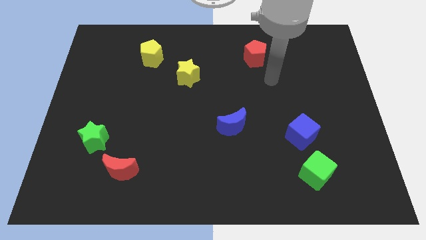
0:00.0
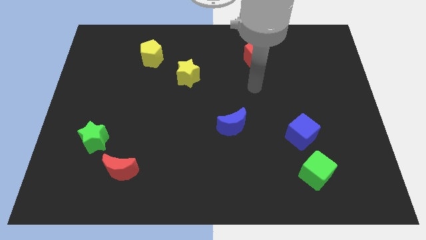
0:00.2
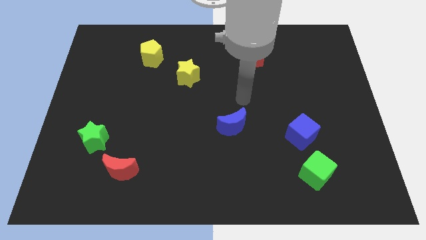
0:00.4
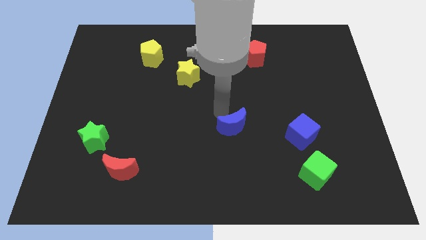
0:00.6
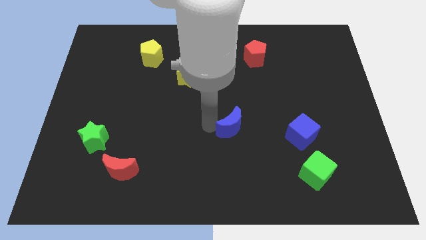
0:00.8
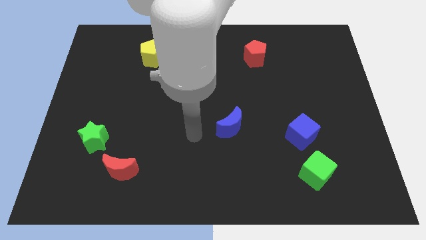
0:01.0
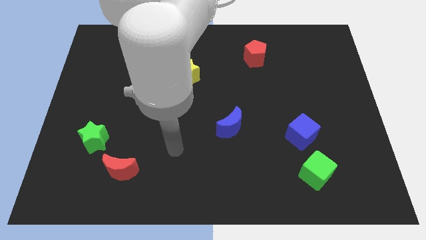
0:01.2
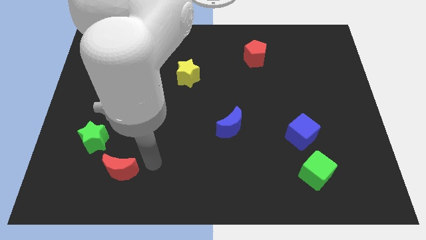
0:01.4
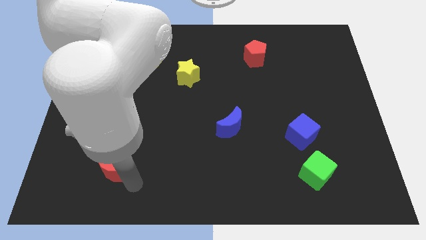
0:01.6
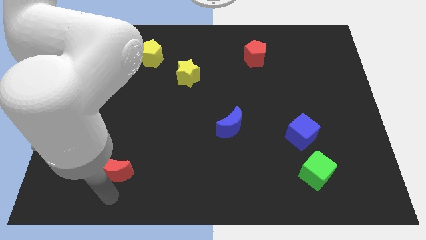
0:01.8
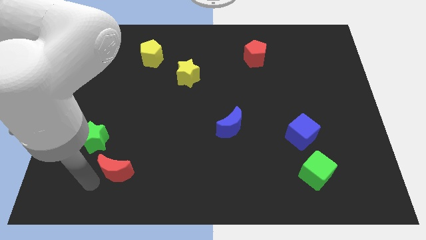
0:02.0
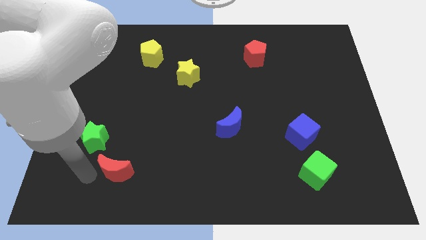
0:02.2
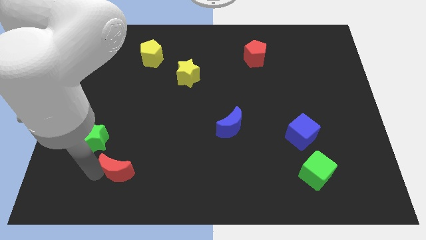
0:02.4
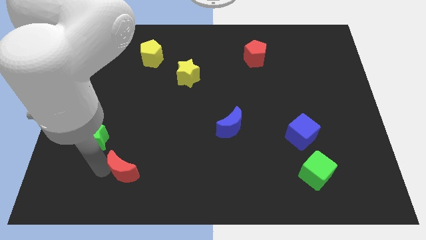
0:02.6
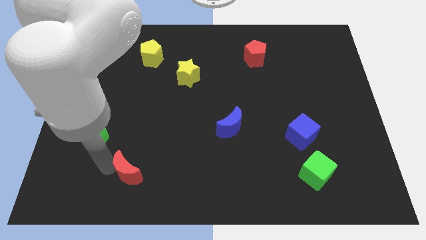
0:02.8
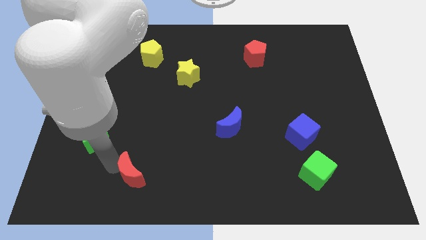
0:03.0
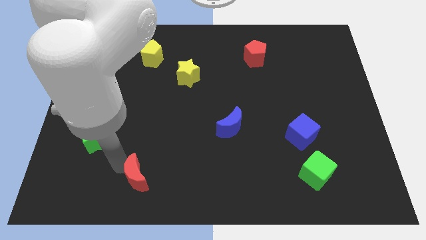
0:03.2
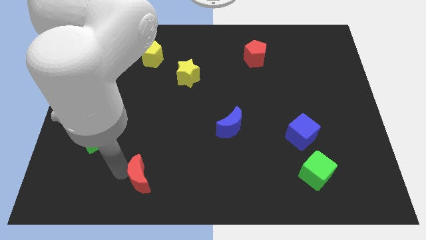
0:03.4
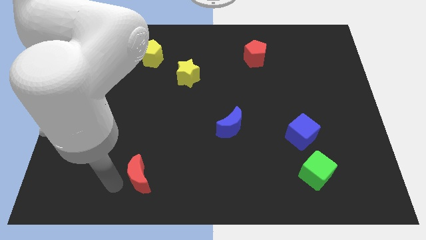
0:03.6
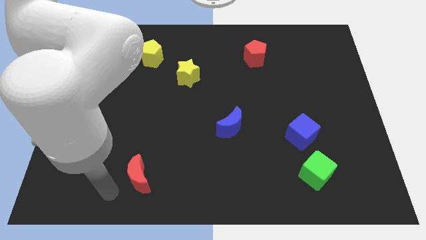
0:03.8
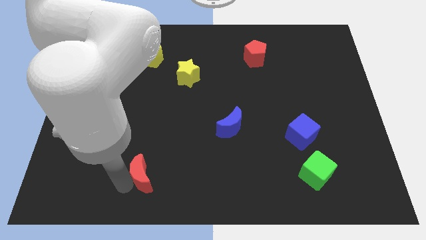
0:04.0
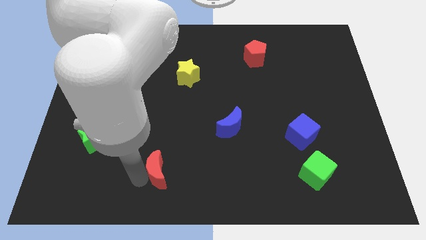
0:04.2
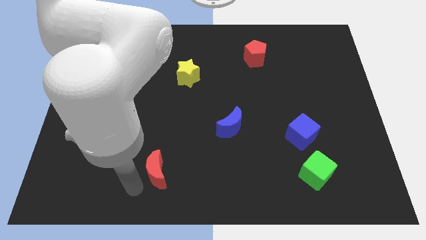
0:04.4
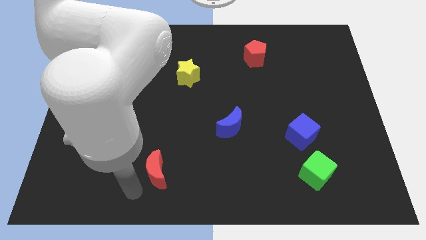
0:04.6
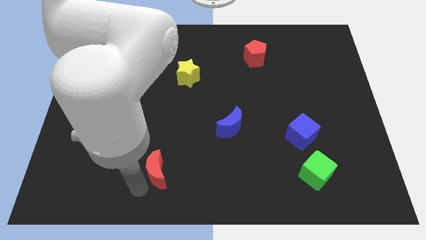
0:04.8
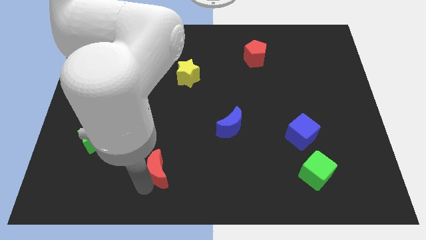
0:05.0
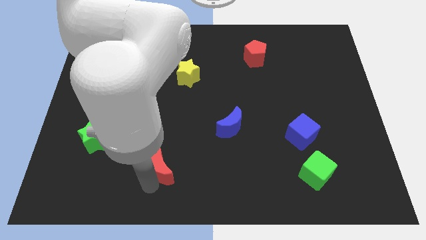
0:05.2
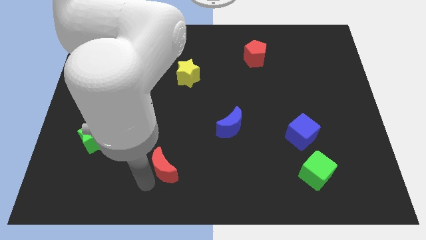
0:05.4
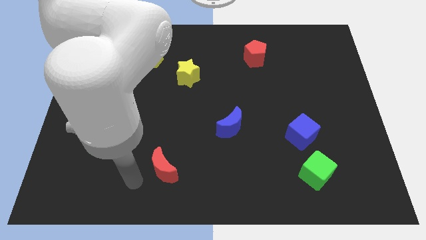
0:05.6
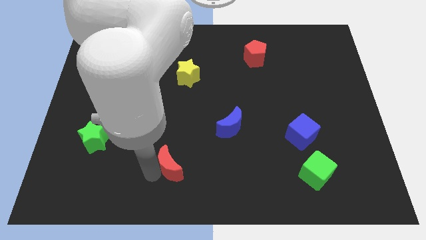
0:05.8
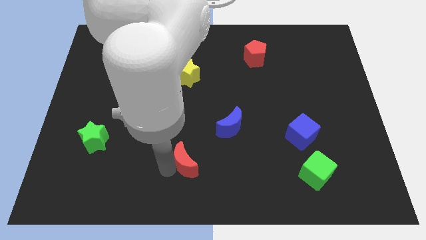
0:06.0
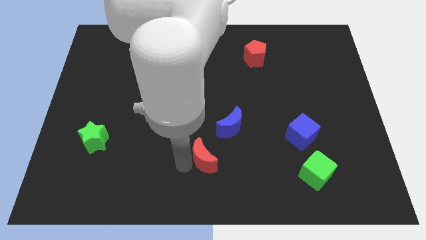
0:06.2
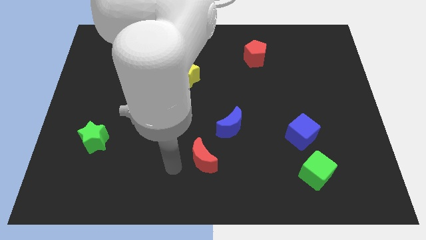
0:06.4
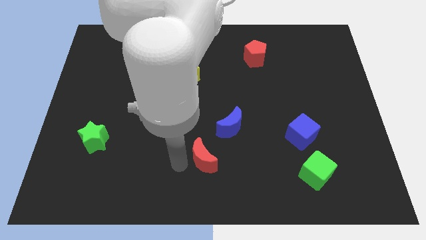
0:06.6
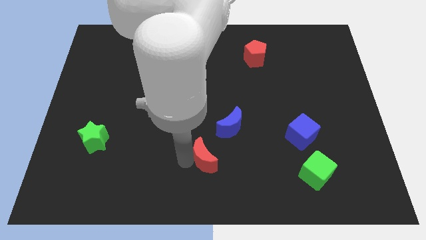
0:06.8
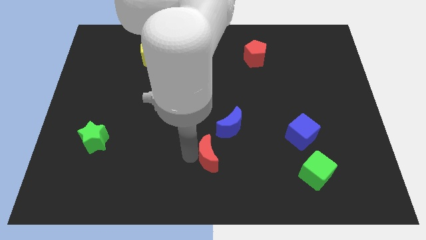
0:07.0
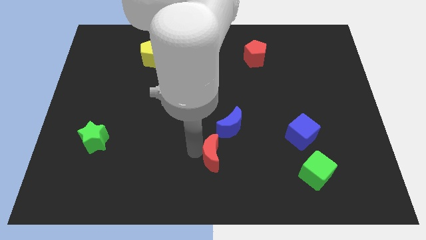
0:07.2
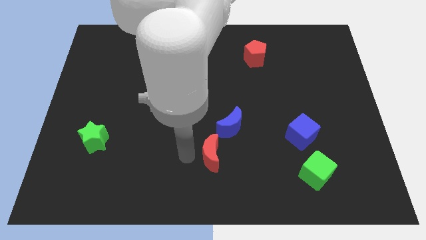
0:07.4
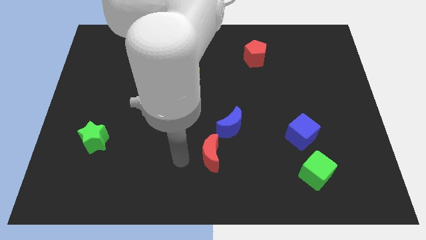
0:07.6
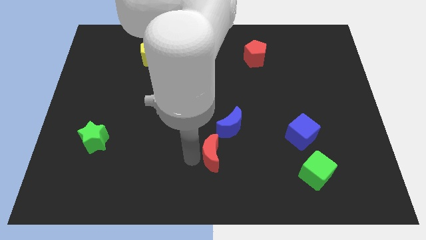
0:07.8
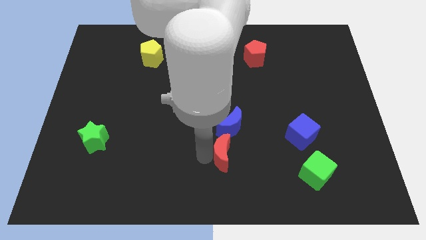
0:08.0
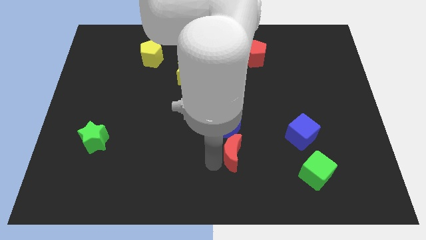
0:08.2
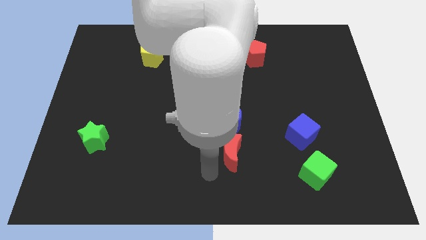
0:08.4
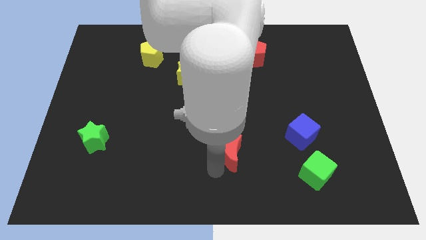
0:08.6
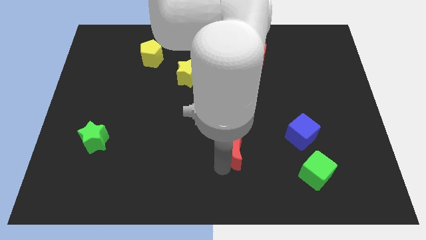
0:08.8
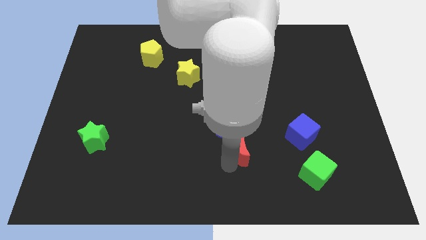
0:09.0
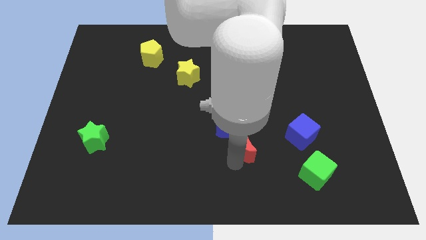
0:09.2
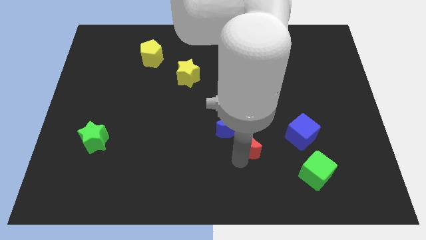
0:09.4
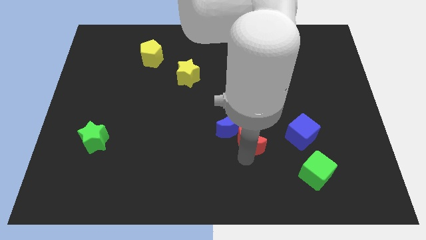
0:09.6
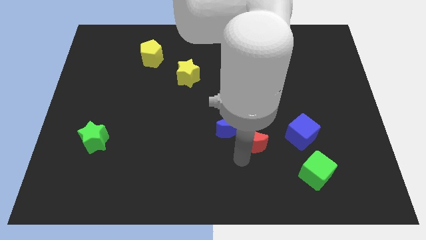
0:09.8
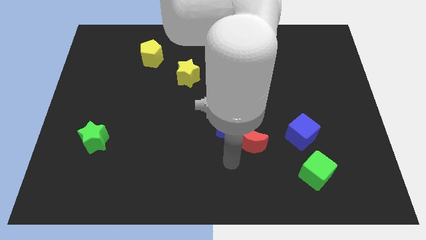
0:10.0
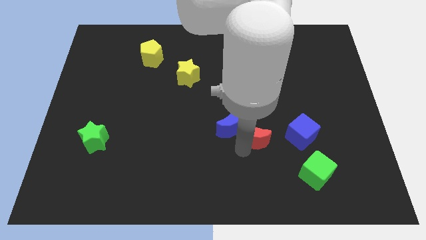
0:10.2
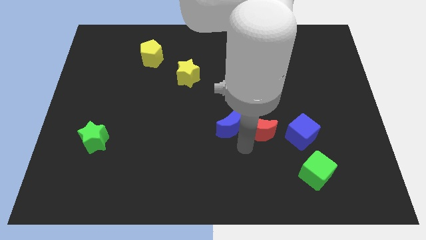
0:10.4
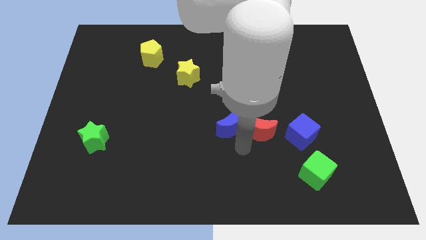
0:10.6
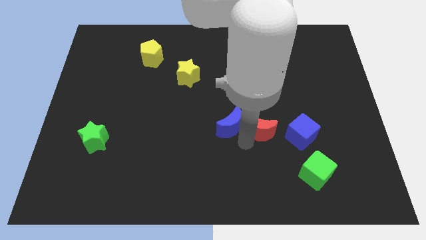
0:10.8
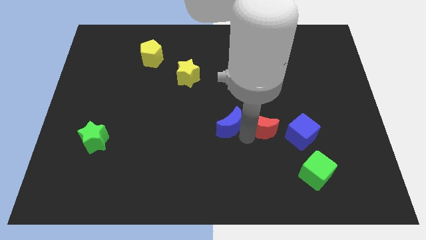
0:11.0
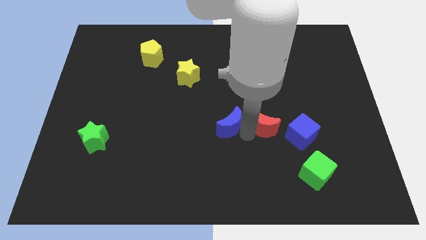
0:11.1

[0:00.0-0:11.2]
put the red moon to the top left side of the blue cube
